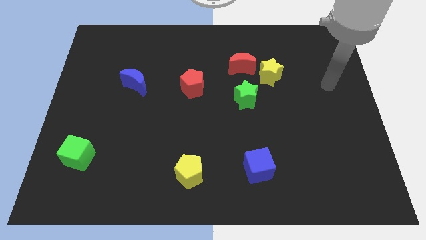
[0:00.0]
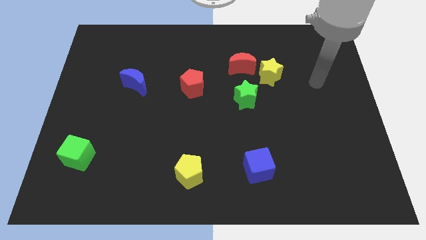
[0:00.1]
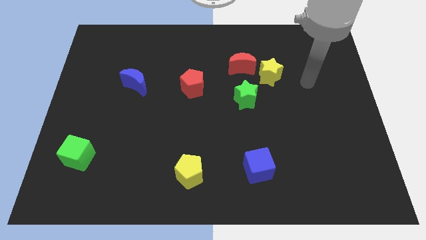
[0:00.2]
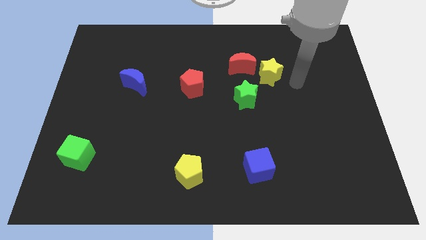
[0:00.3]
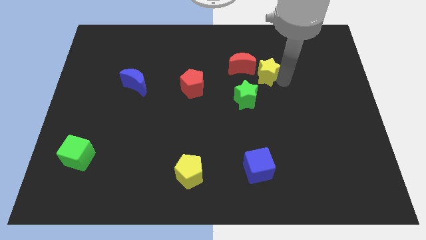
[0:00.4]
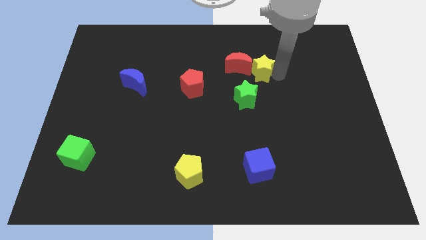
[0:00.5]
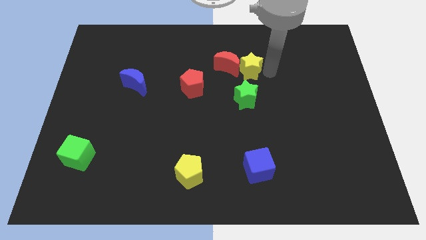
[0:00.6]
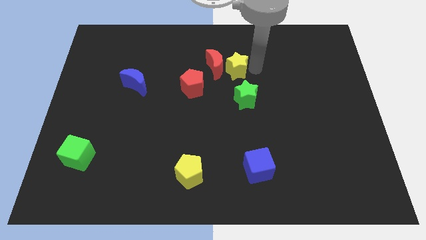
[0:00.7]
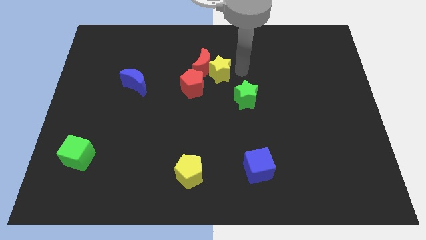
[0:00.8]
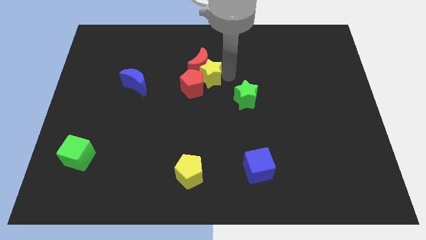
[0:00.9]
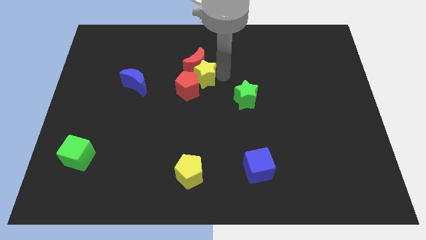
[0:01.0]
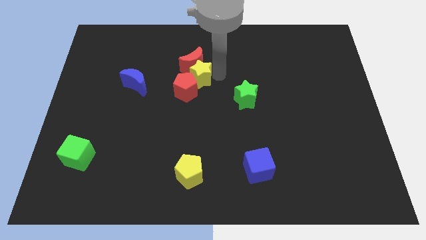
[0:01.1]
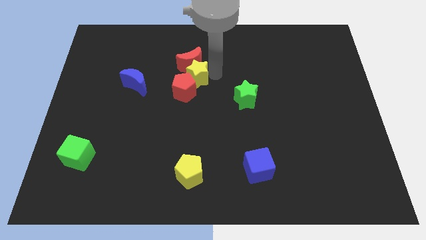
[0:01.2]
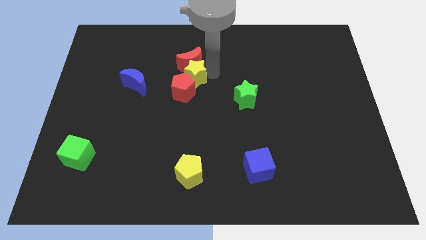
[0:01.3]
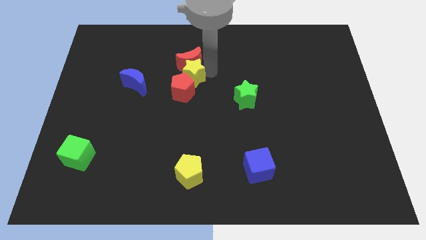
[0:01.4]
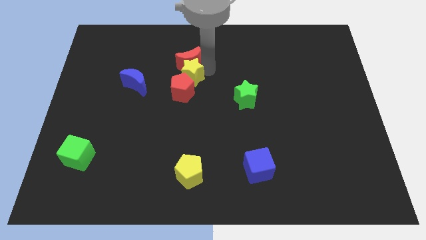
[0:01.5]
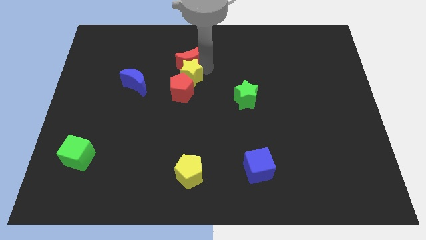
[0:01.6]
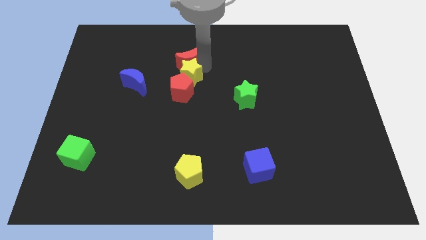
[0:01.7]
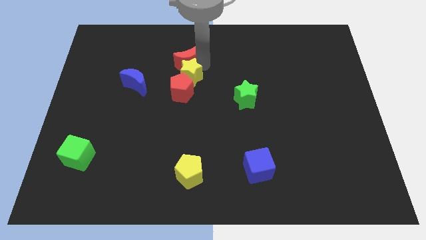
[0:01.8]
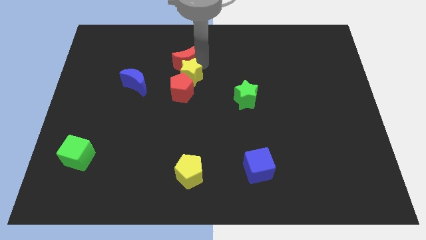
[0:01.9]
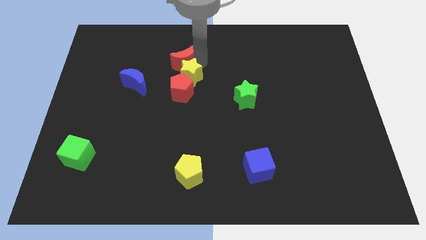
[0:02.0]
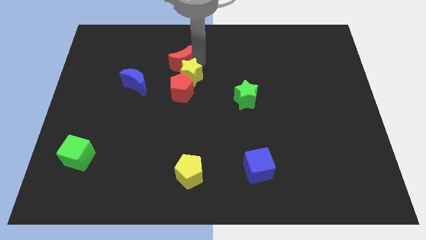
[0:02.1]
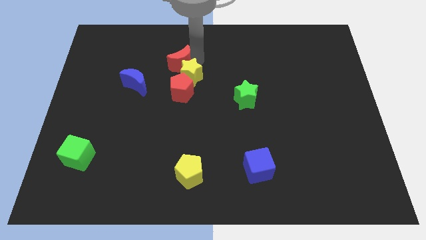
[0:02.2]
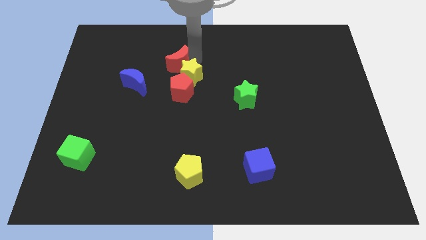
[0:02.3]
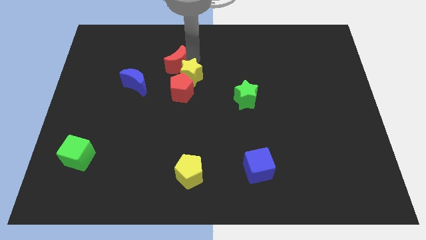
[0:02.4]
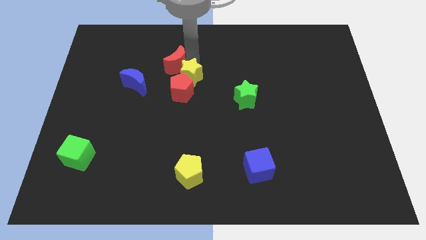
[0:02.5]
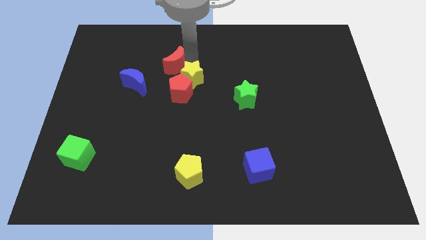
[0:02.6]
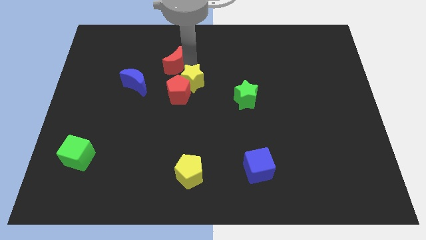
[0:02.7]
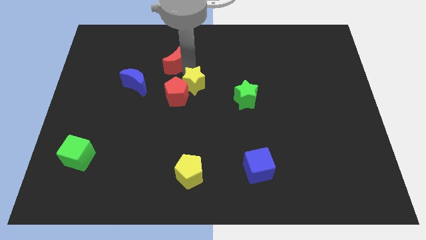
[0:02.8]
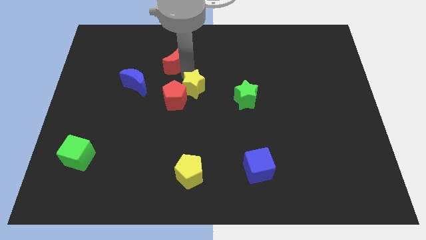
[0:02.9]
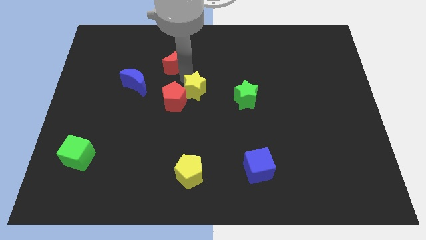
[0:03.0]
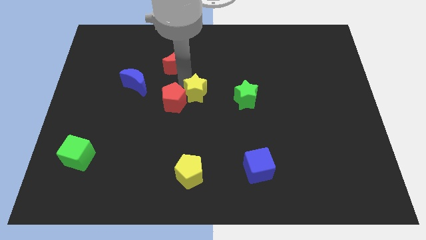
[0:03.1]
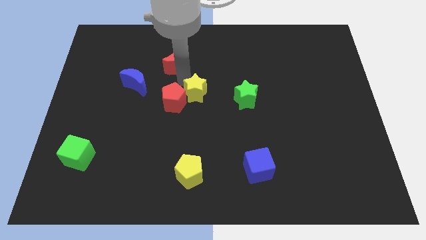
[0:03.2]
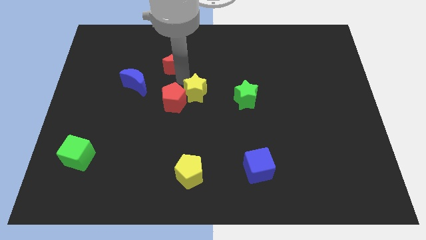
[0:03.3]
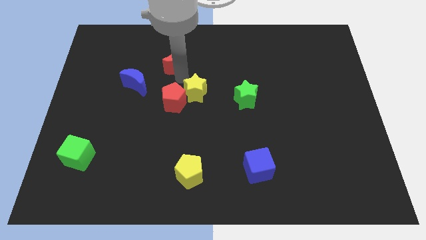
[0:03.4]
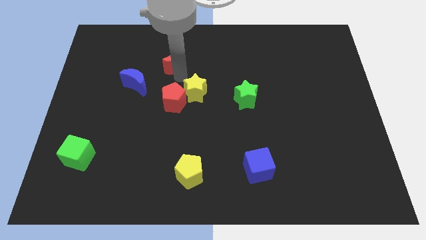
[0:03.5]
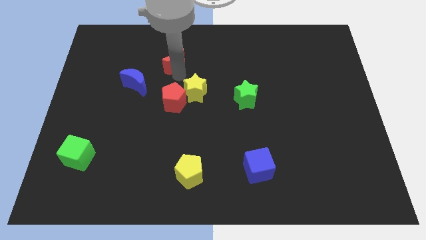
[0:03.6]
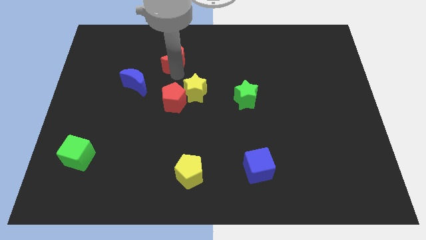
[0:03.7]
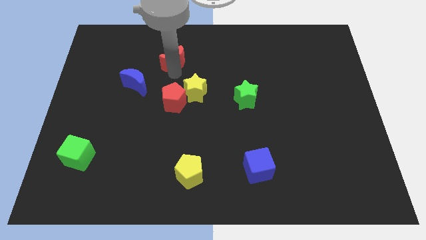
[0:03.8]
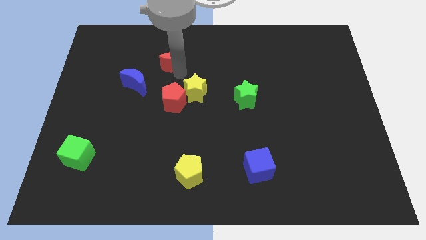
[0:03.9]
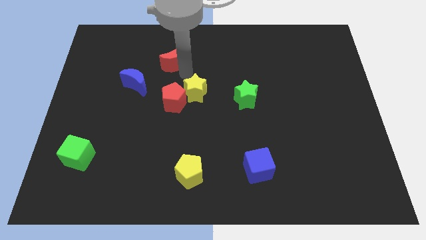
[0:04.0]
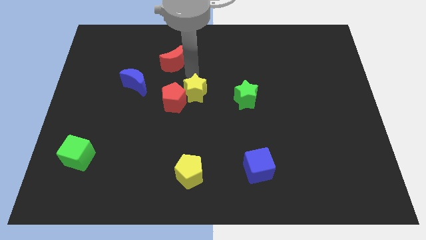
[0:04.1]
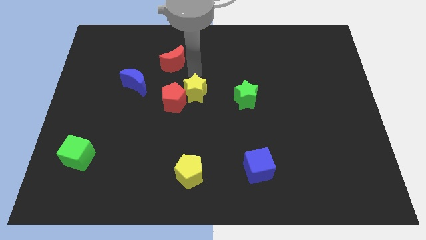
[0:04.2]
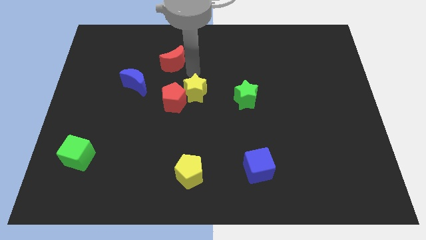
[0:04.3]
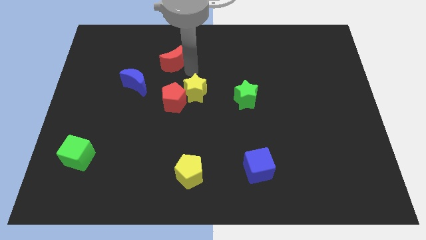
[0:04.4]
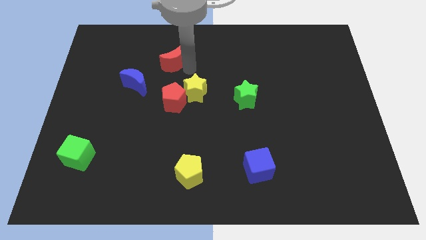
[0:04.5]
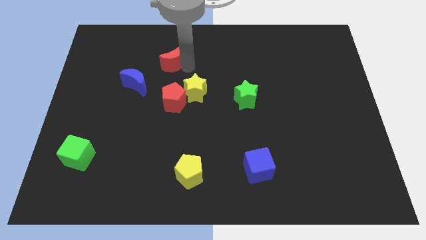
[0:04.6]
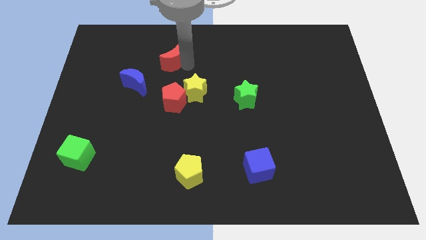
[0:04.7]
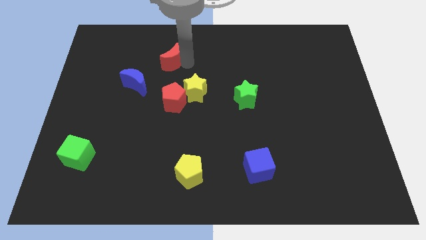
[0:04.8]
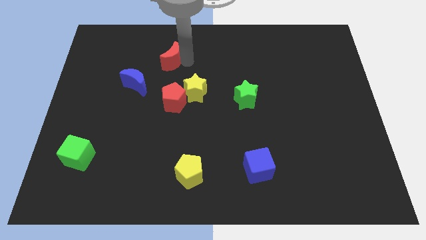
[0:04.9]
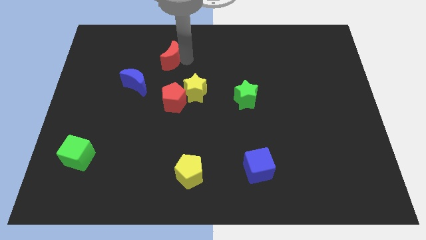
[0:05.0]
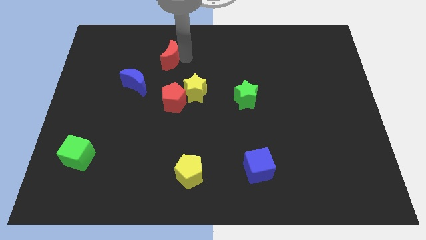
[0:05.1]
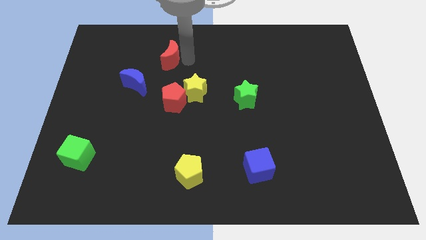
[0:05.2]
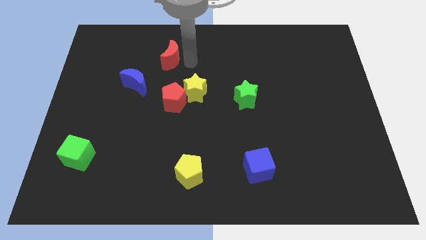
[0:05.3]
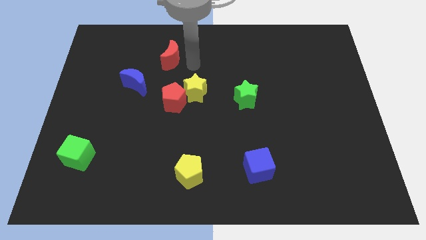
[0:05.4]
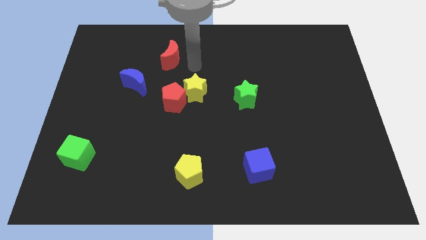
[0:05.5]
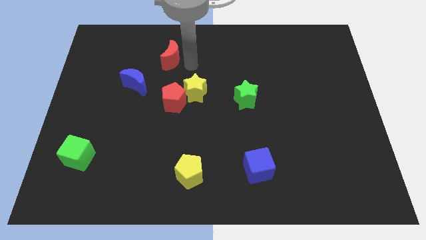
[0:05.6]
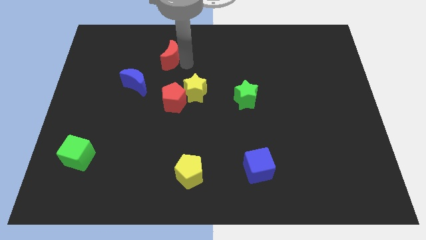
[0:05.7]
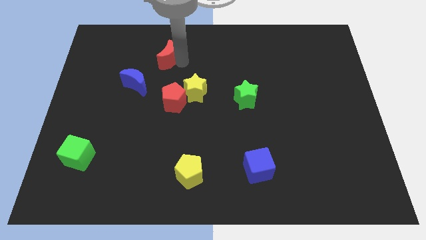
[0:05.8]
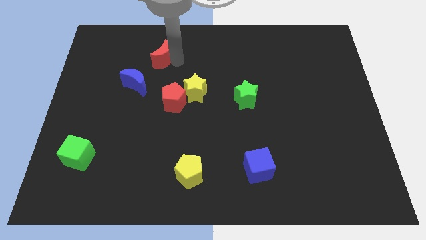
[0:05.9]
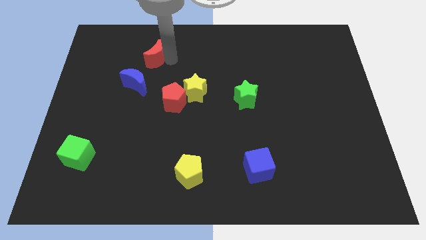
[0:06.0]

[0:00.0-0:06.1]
slide the red moon to the top side of the blue moon

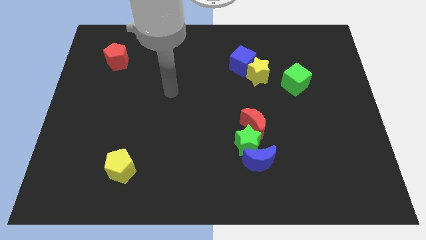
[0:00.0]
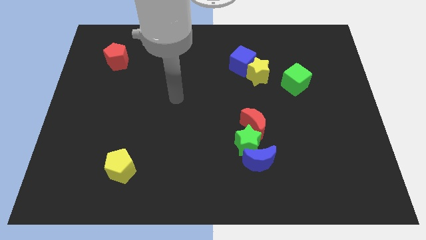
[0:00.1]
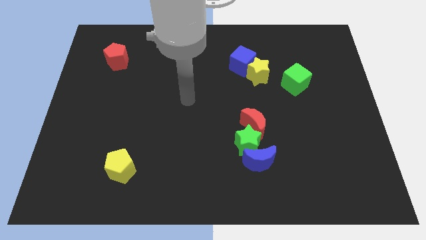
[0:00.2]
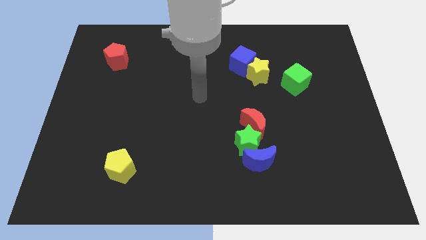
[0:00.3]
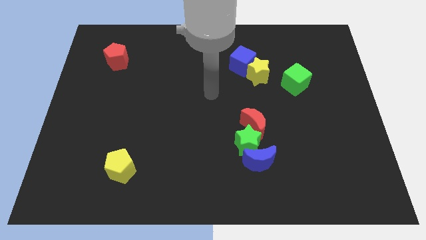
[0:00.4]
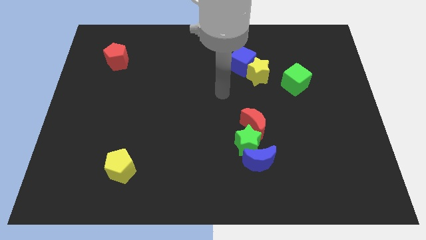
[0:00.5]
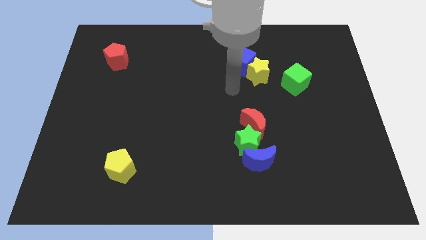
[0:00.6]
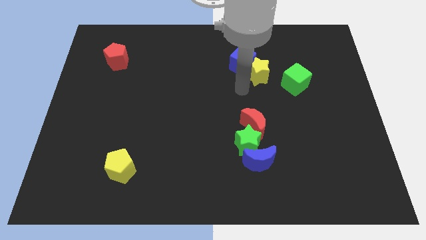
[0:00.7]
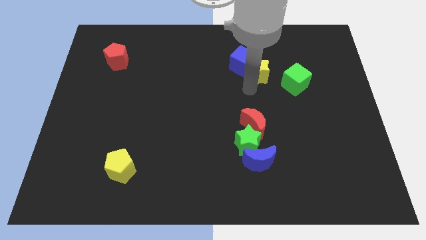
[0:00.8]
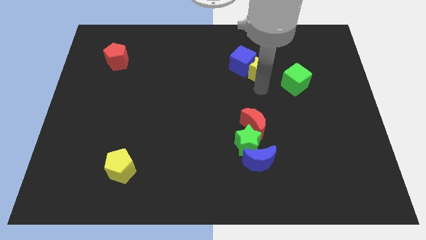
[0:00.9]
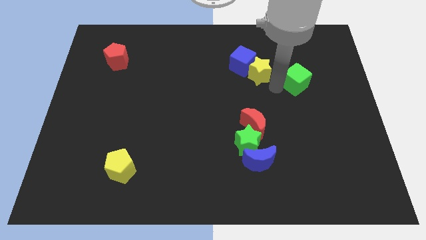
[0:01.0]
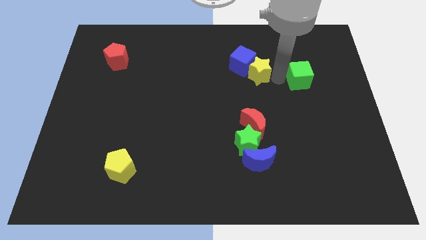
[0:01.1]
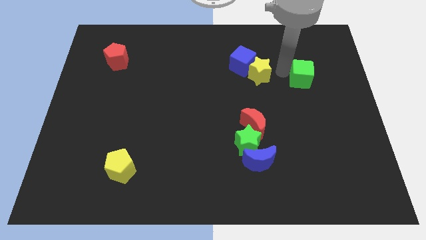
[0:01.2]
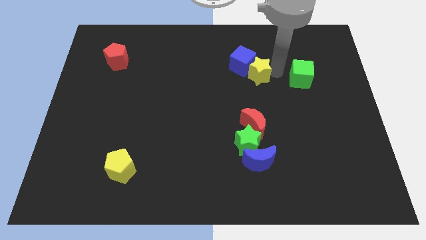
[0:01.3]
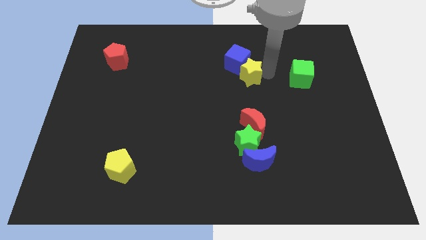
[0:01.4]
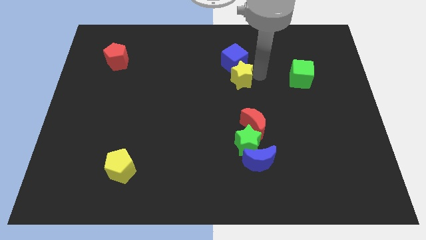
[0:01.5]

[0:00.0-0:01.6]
push the yellow star to the bottom left of the blue cube
